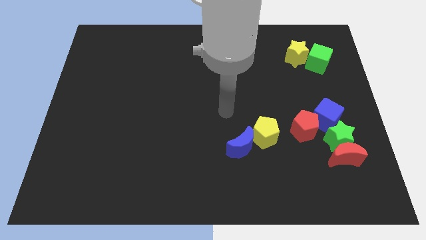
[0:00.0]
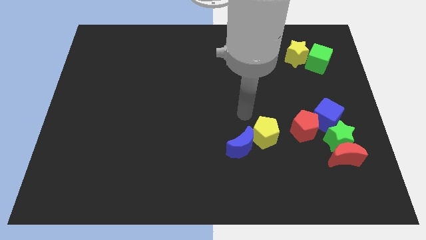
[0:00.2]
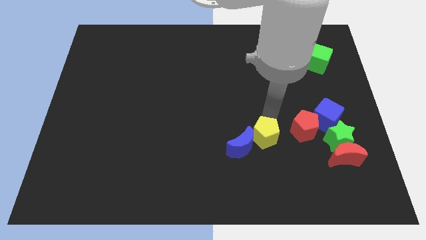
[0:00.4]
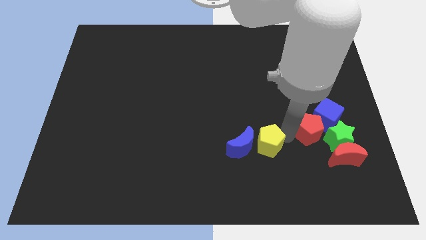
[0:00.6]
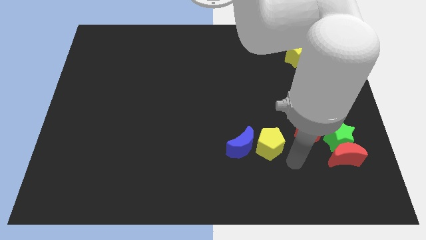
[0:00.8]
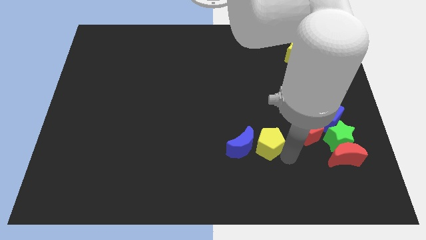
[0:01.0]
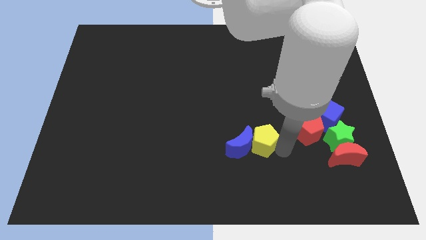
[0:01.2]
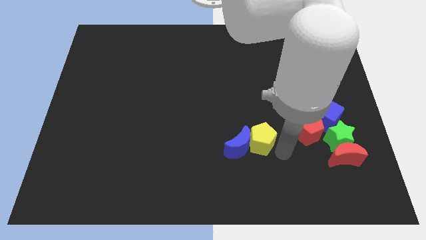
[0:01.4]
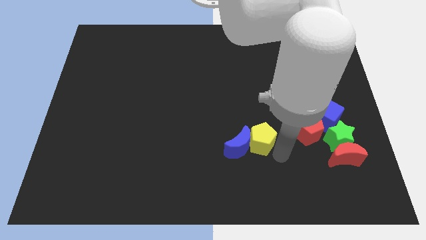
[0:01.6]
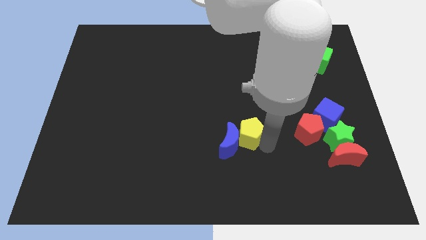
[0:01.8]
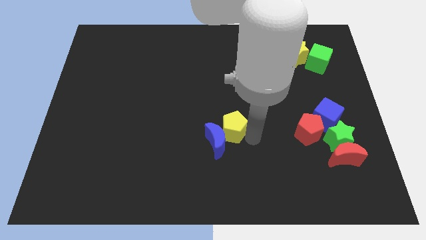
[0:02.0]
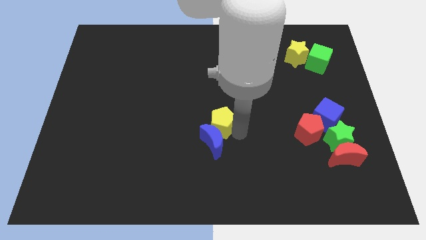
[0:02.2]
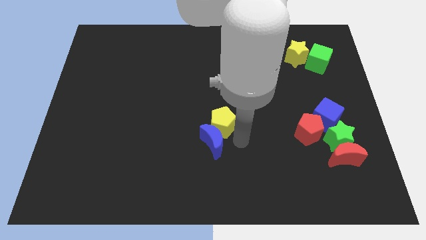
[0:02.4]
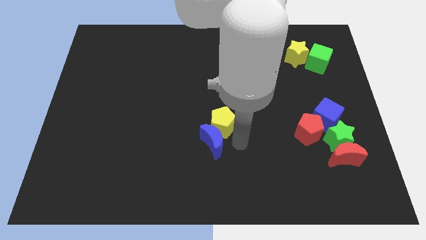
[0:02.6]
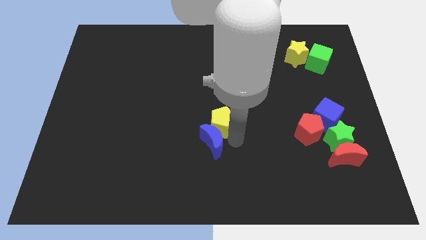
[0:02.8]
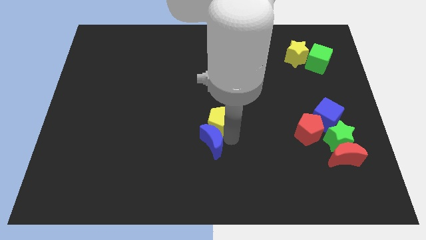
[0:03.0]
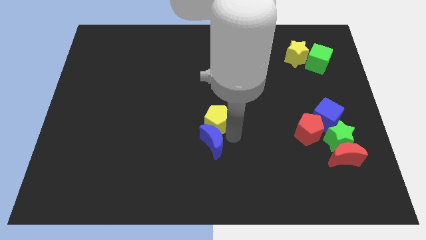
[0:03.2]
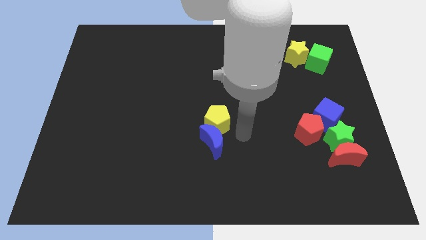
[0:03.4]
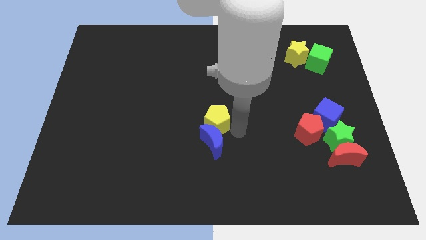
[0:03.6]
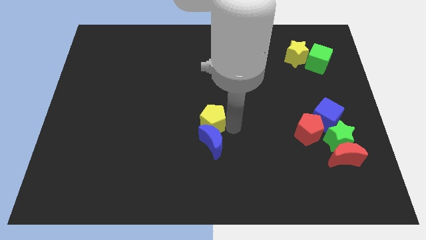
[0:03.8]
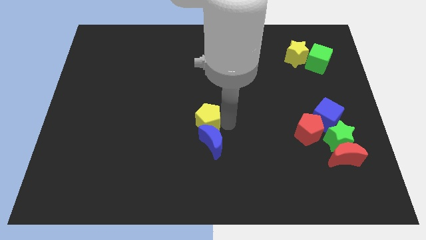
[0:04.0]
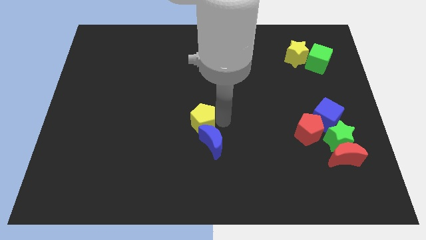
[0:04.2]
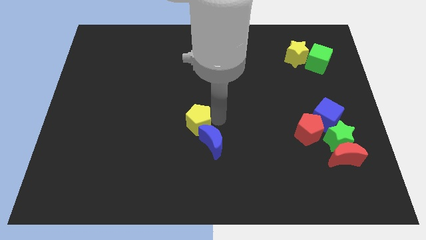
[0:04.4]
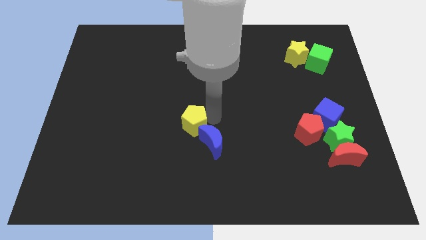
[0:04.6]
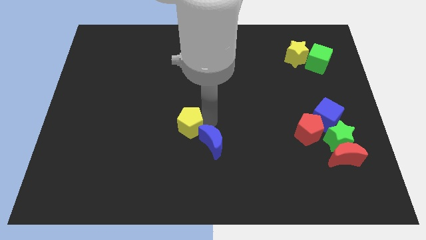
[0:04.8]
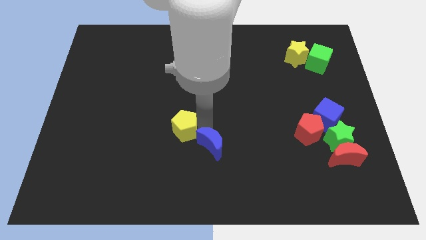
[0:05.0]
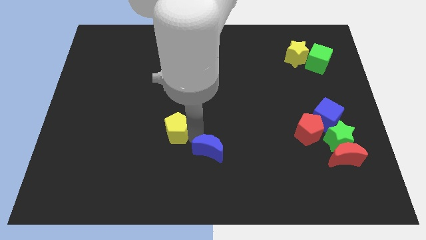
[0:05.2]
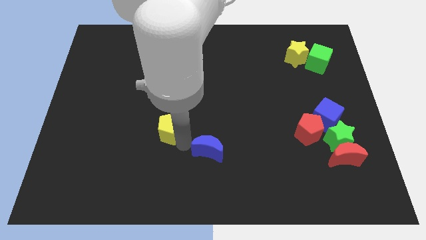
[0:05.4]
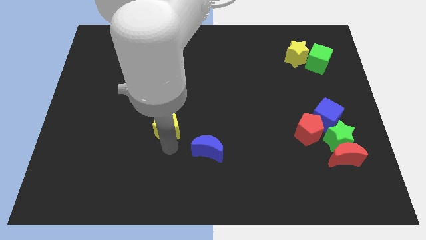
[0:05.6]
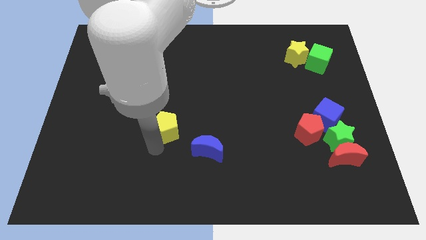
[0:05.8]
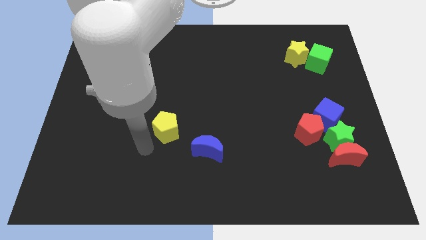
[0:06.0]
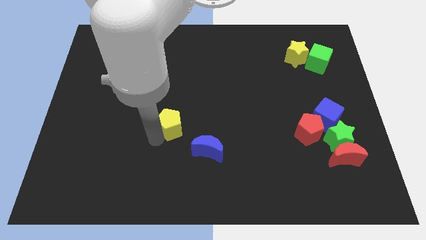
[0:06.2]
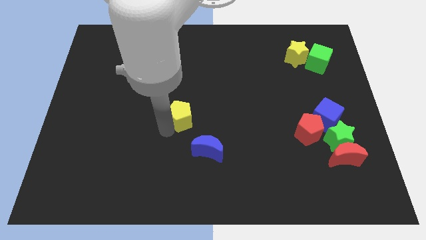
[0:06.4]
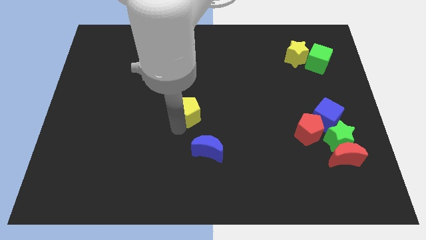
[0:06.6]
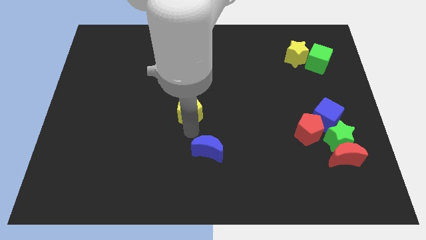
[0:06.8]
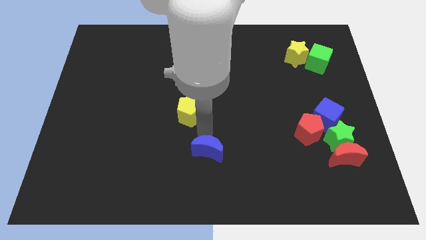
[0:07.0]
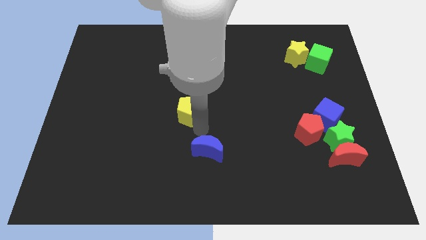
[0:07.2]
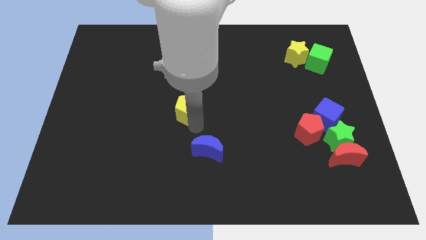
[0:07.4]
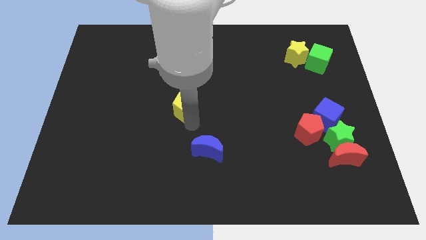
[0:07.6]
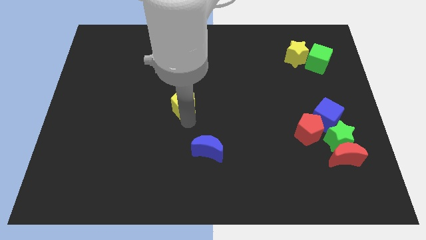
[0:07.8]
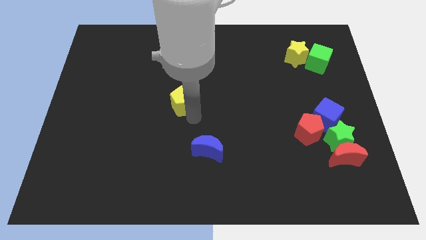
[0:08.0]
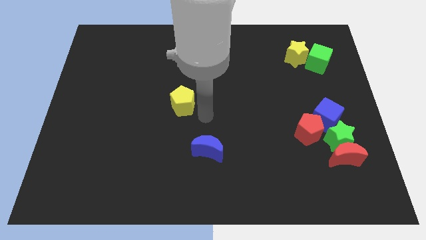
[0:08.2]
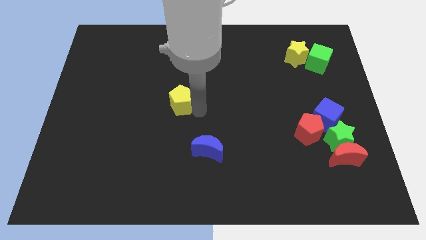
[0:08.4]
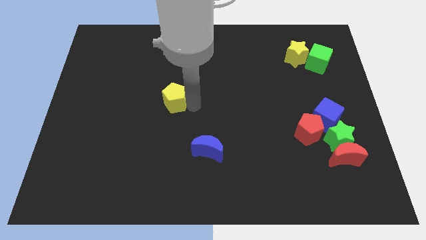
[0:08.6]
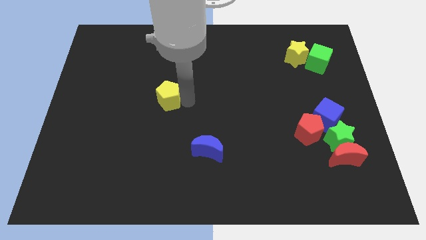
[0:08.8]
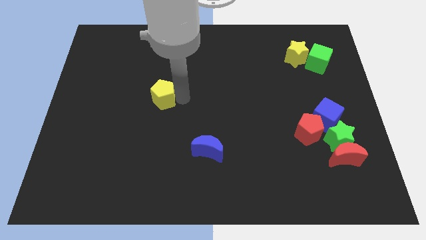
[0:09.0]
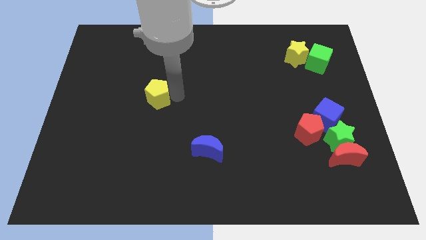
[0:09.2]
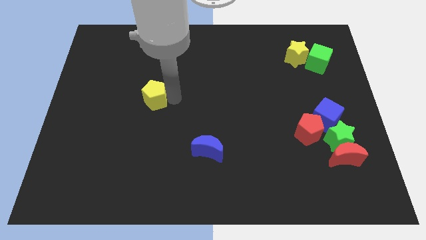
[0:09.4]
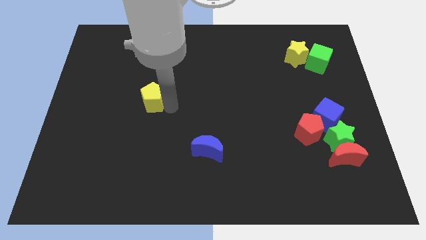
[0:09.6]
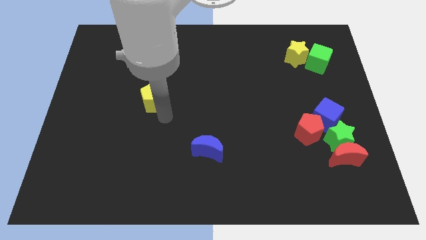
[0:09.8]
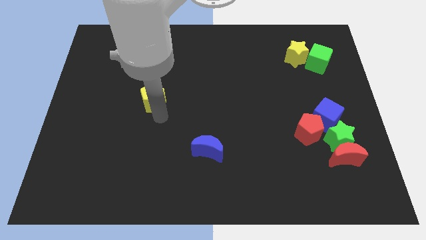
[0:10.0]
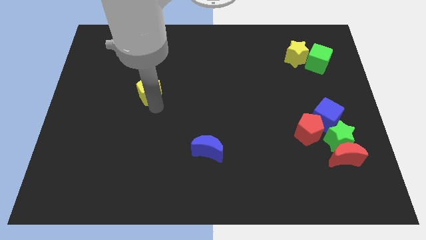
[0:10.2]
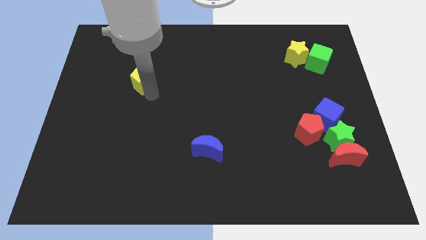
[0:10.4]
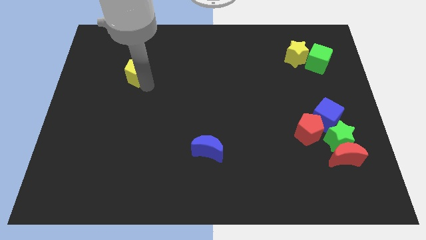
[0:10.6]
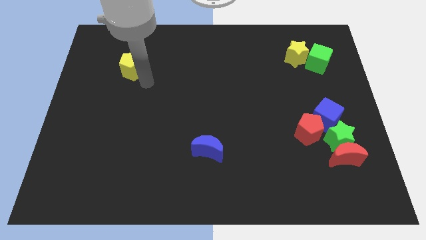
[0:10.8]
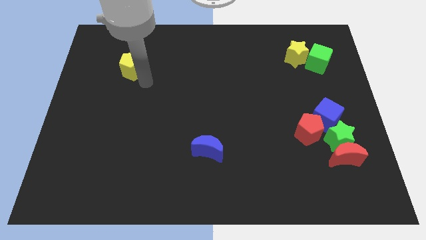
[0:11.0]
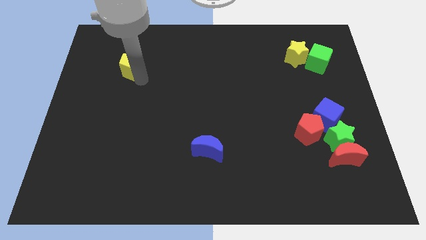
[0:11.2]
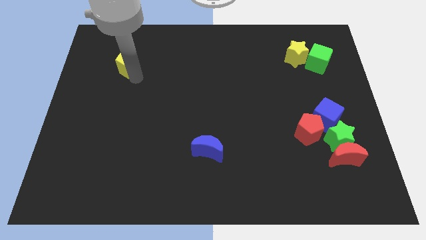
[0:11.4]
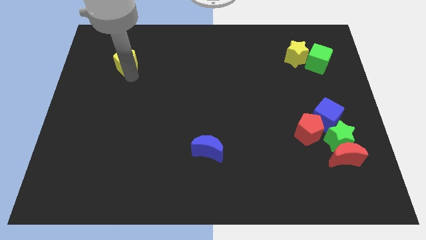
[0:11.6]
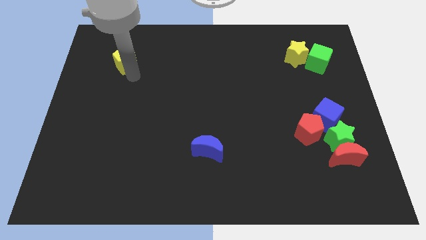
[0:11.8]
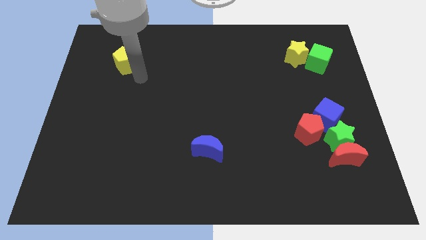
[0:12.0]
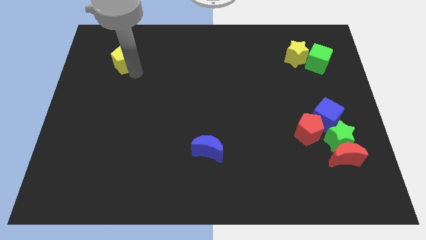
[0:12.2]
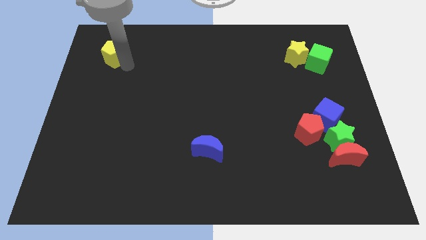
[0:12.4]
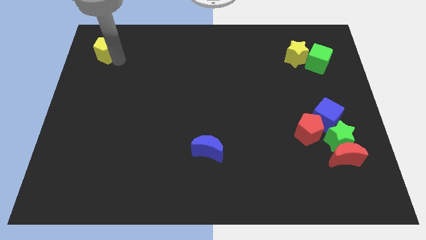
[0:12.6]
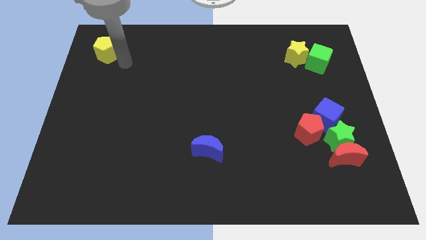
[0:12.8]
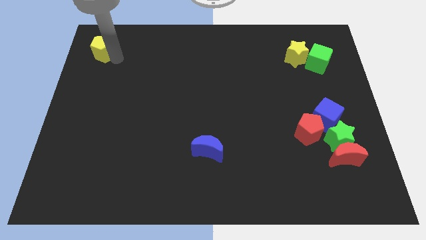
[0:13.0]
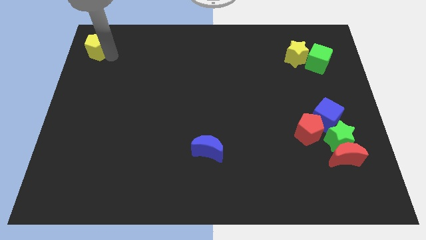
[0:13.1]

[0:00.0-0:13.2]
put the yellow pentagon to the upper left corner

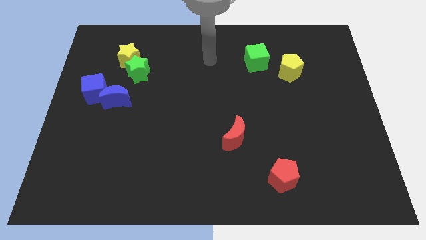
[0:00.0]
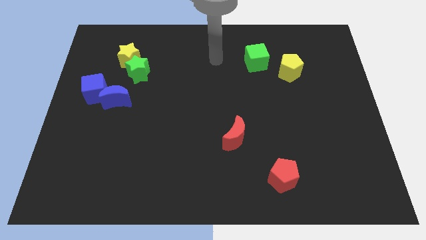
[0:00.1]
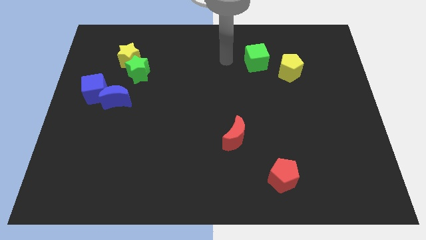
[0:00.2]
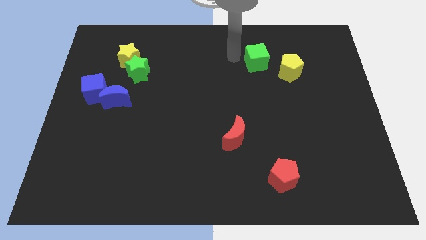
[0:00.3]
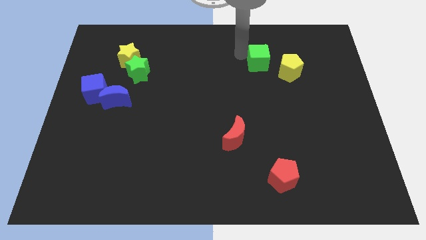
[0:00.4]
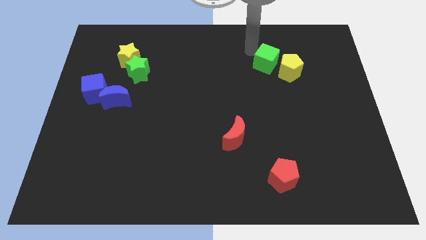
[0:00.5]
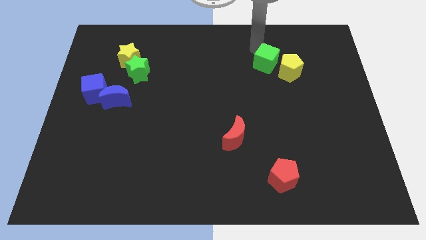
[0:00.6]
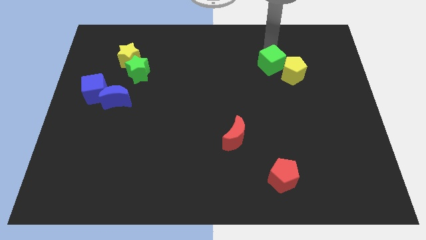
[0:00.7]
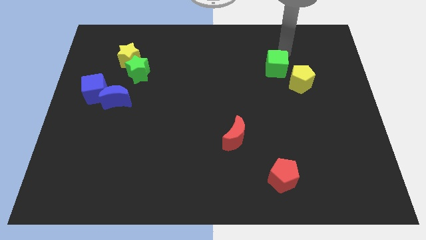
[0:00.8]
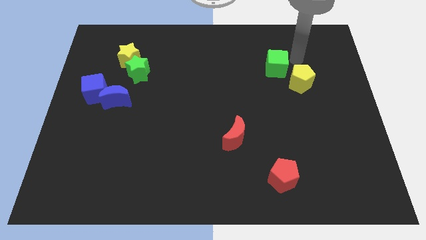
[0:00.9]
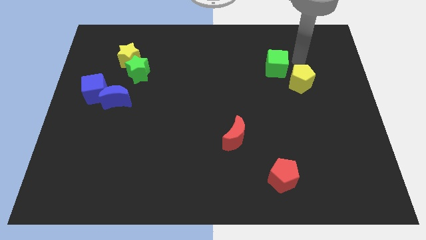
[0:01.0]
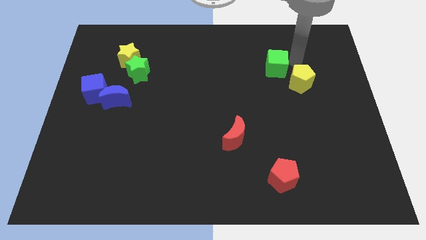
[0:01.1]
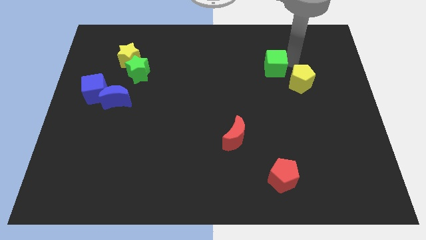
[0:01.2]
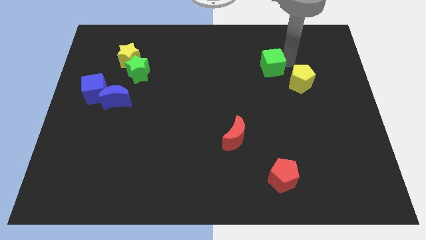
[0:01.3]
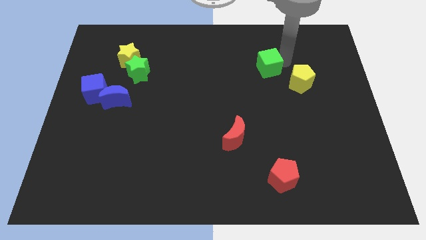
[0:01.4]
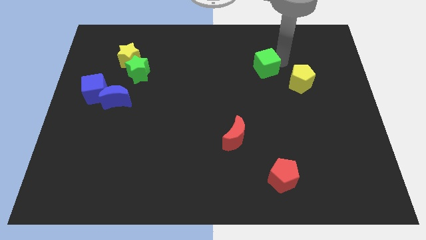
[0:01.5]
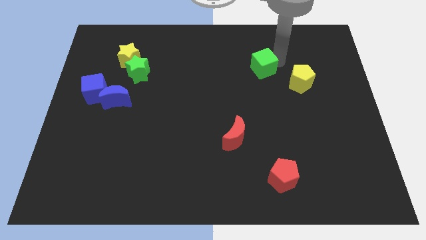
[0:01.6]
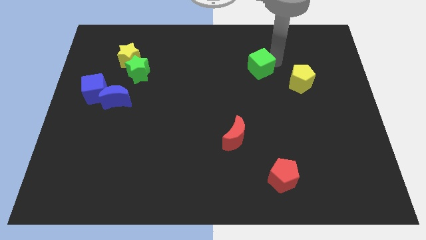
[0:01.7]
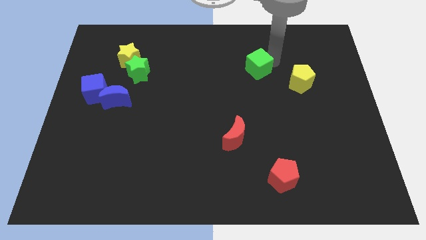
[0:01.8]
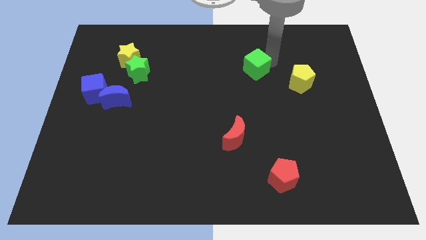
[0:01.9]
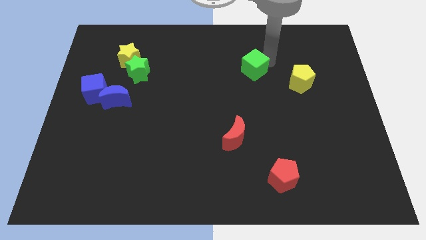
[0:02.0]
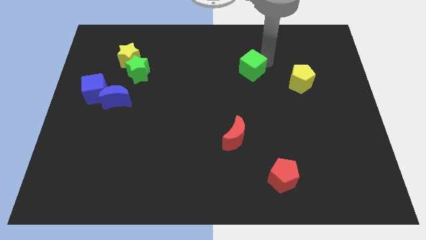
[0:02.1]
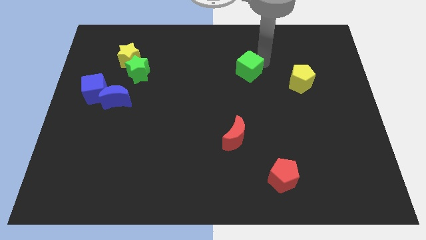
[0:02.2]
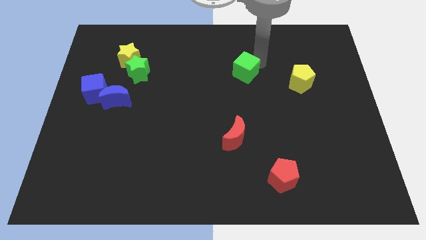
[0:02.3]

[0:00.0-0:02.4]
move the green cube to the center
